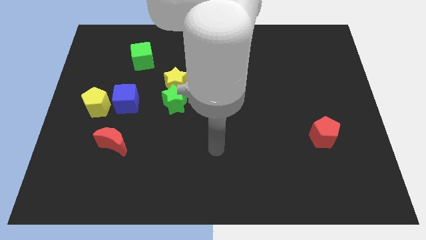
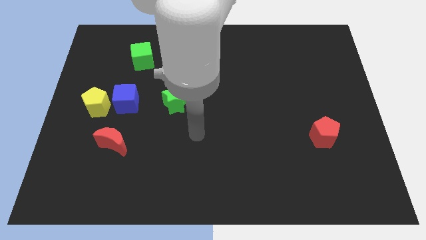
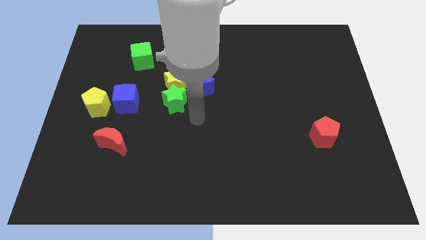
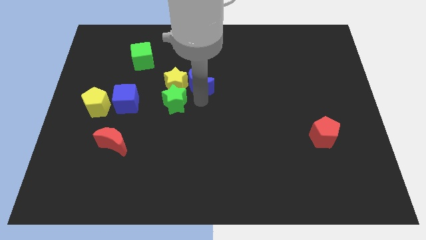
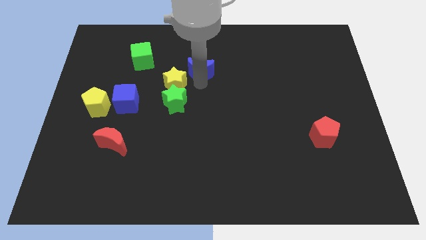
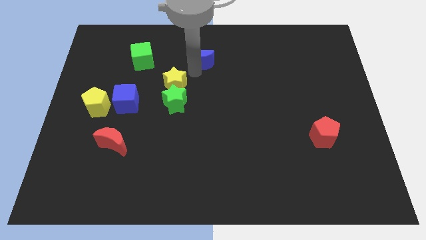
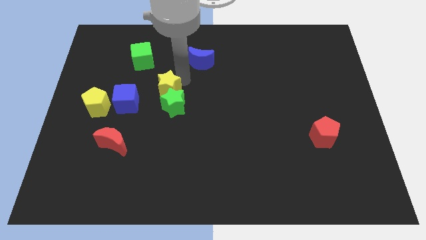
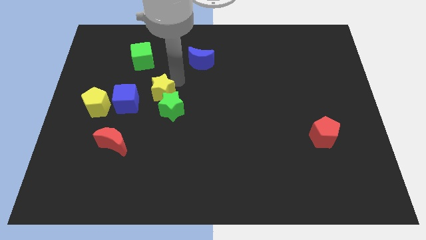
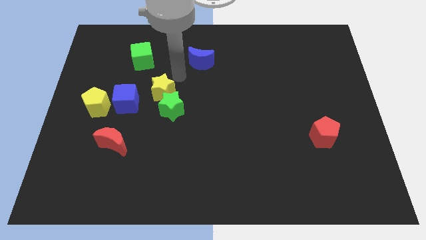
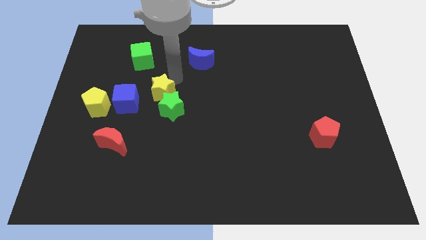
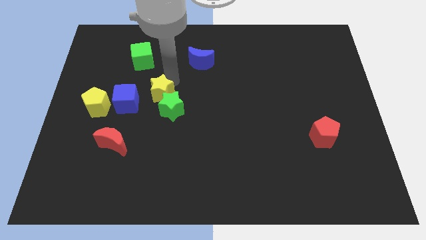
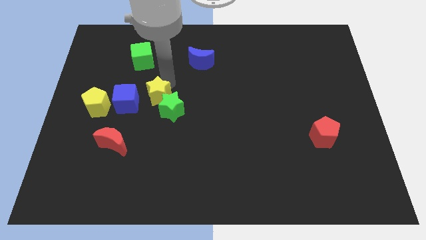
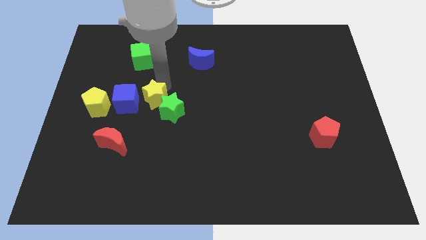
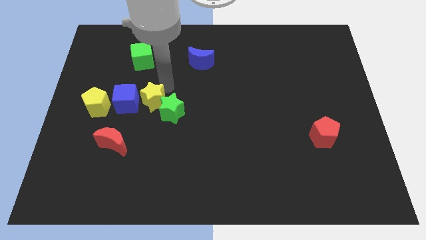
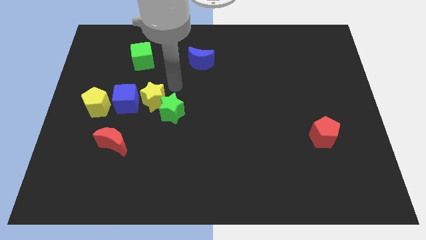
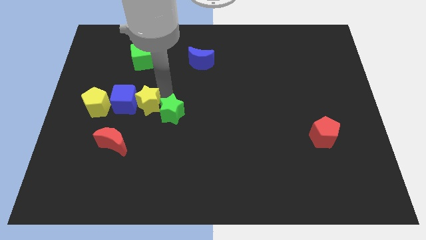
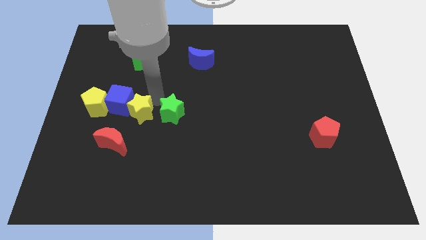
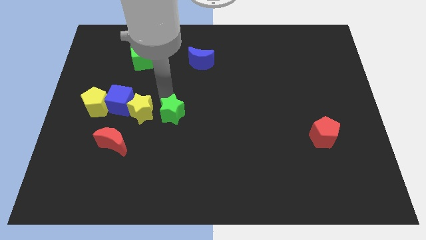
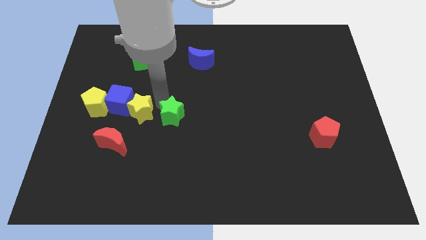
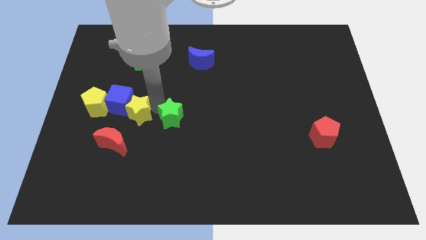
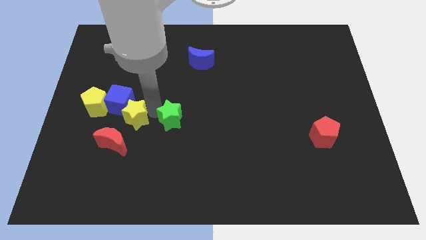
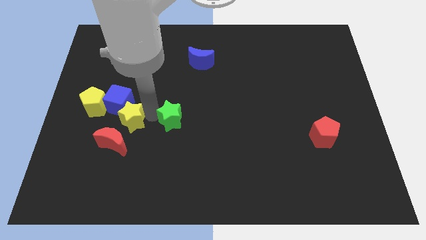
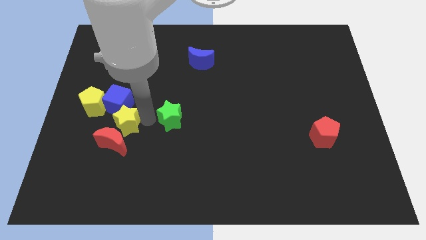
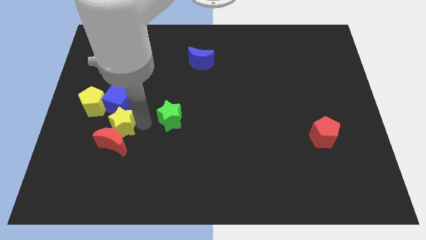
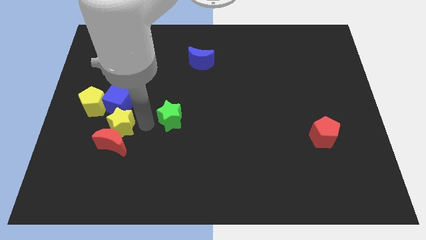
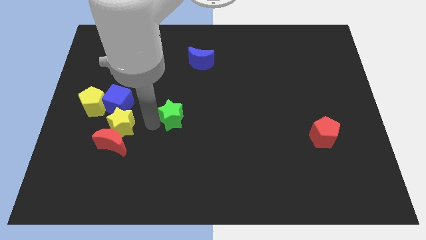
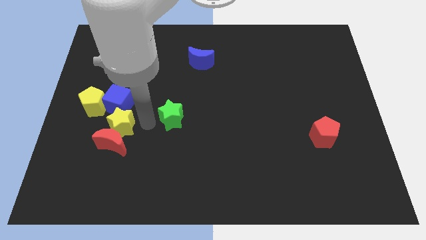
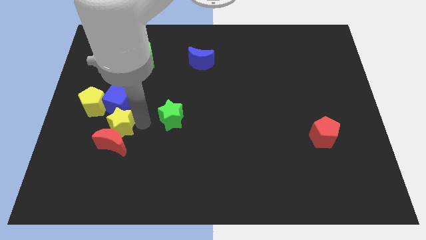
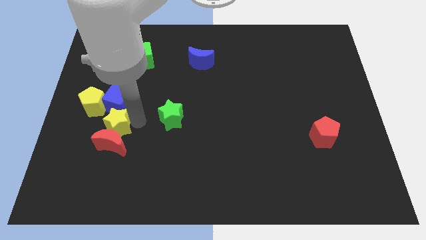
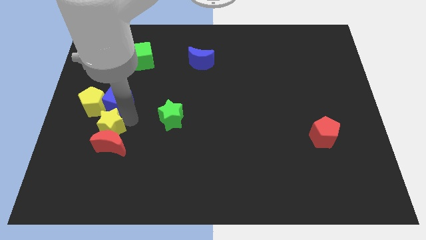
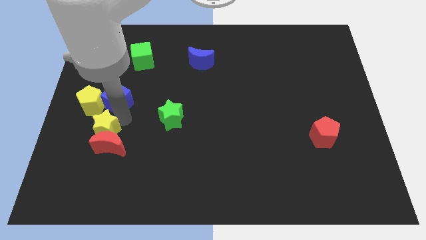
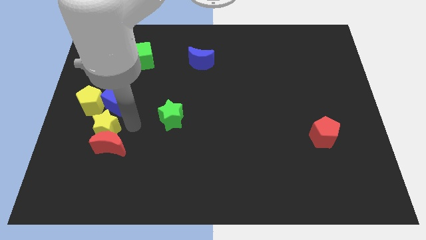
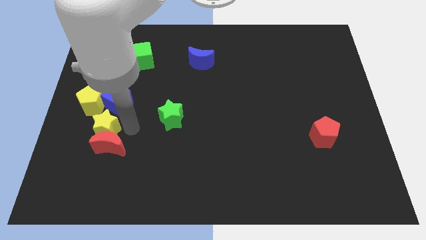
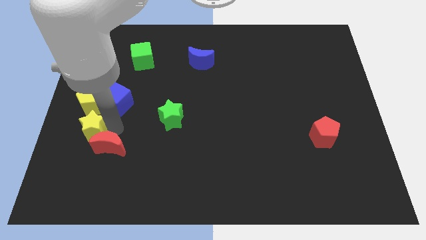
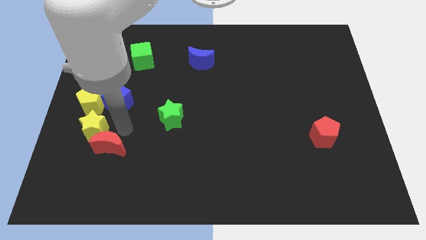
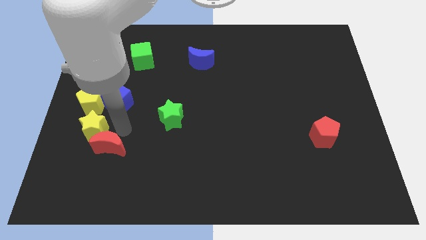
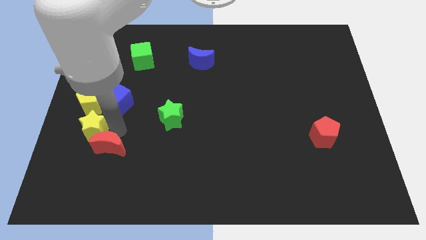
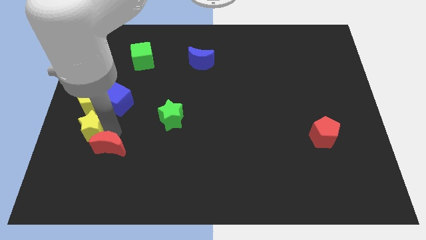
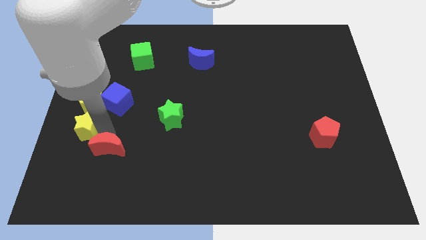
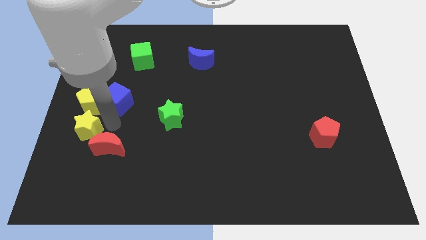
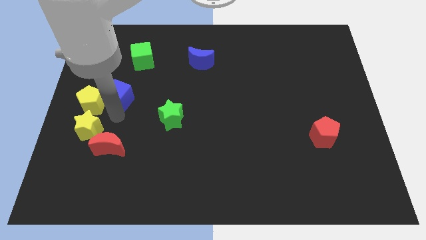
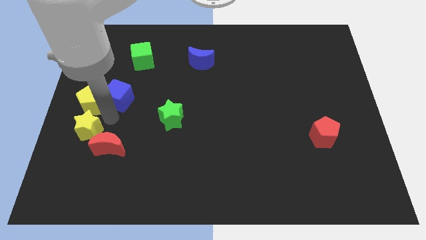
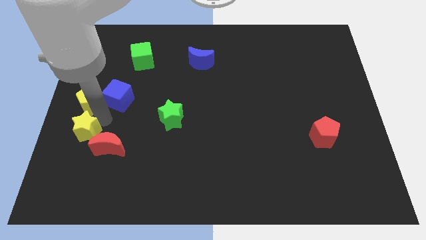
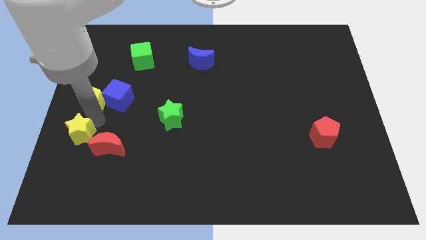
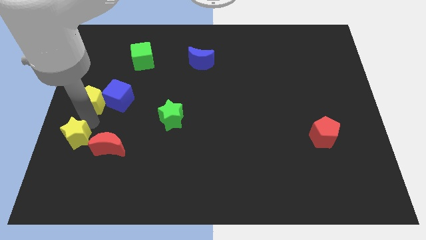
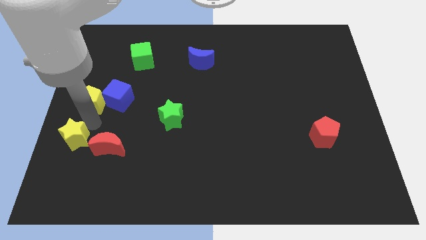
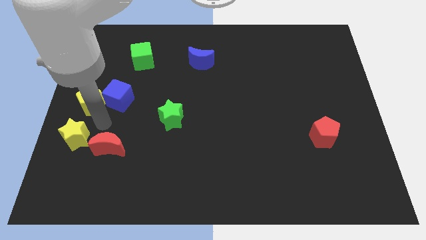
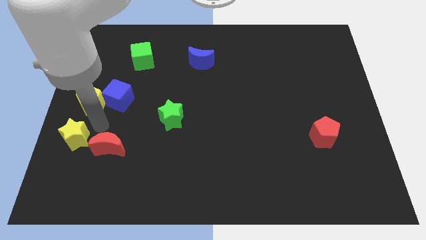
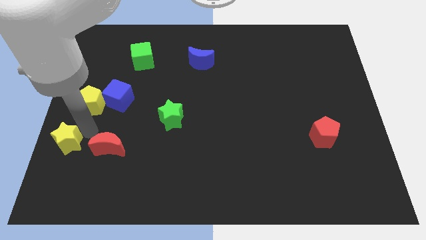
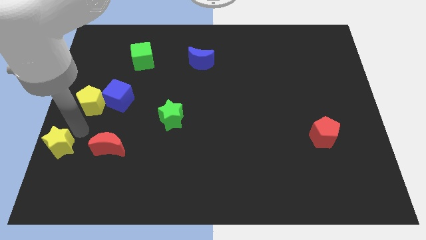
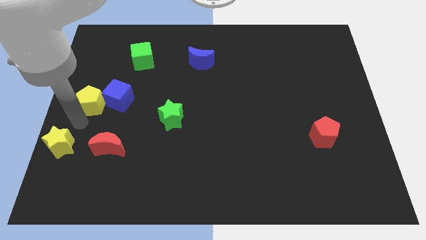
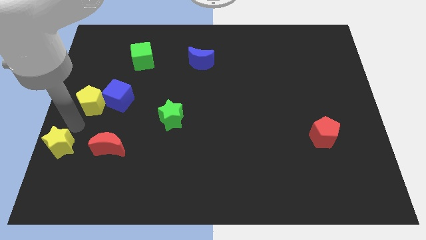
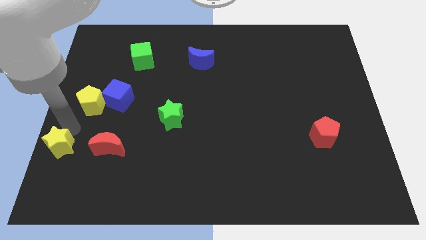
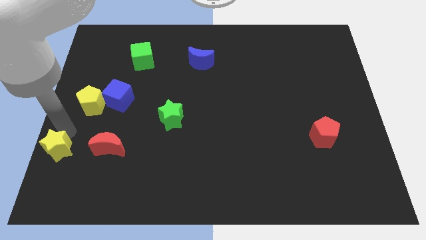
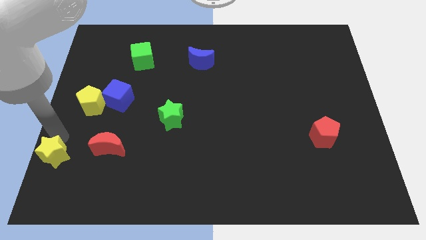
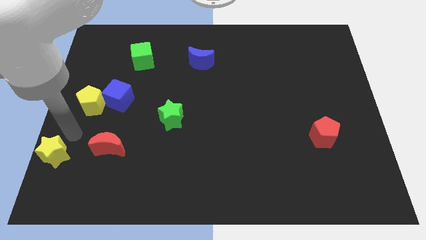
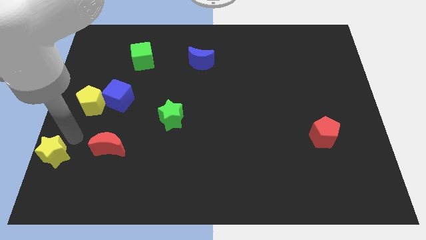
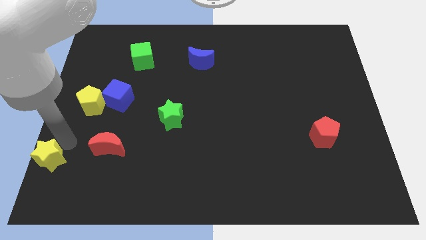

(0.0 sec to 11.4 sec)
slide the yellow star to the bottom left

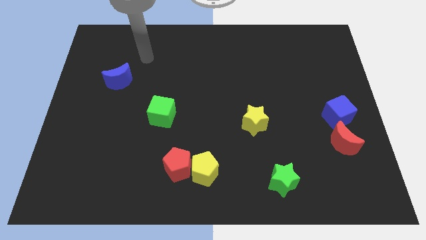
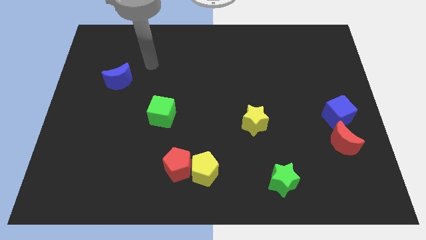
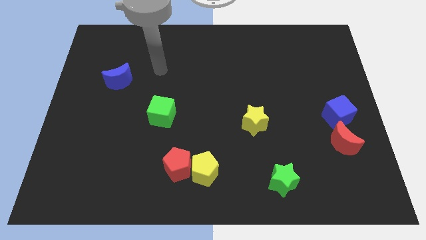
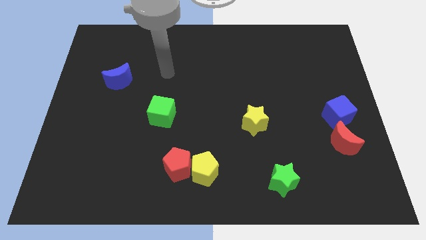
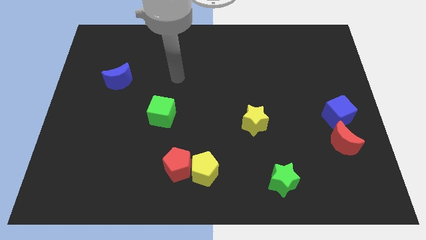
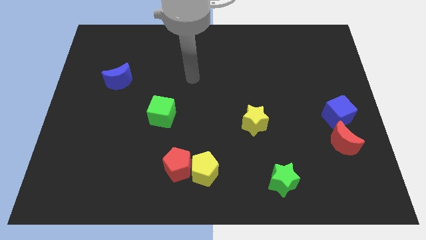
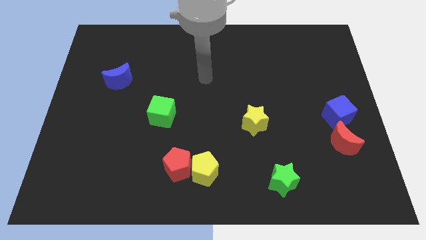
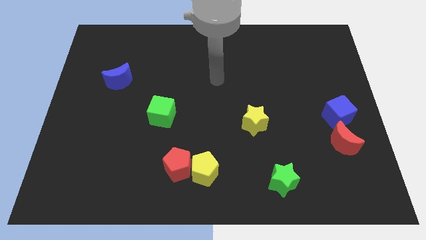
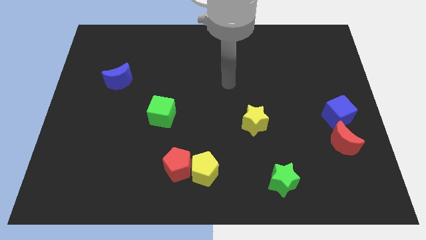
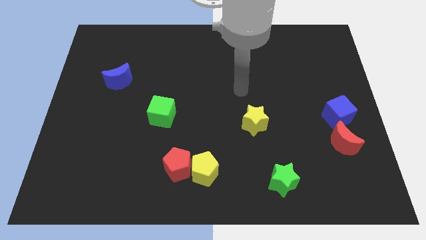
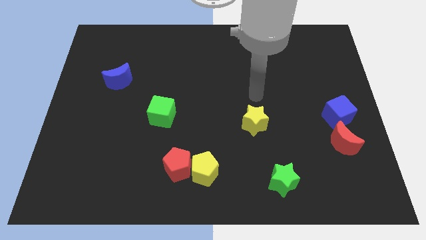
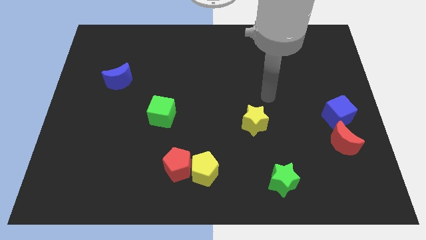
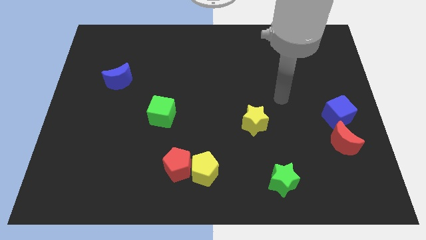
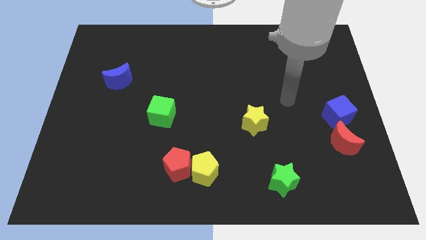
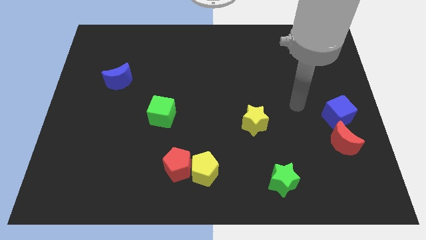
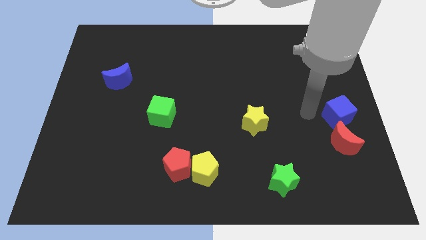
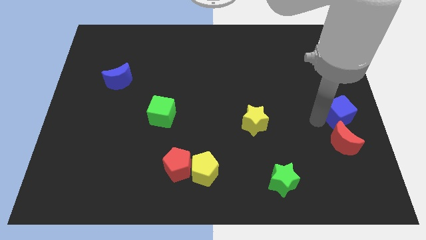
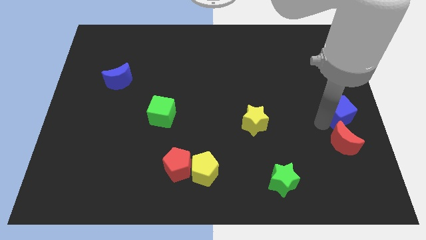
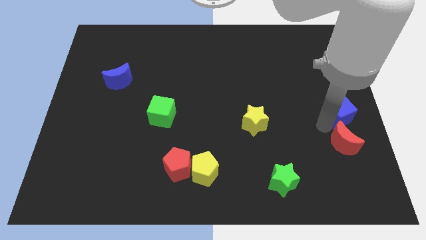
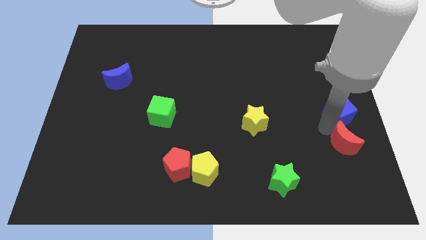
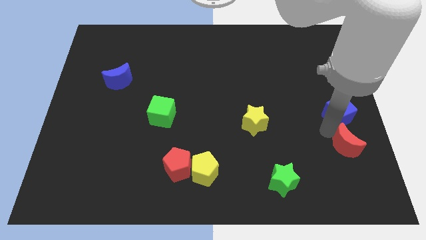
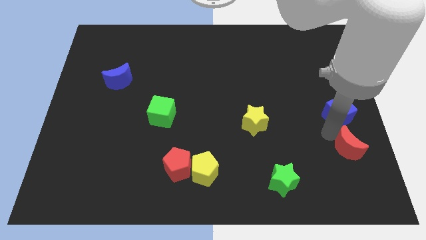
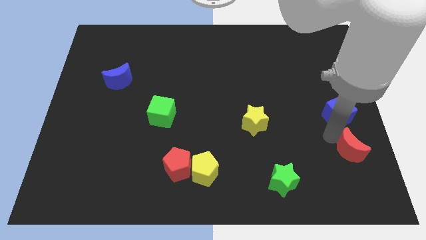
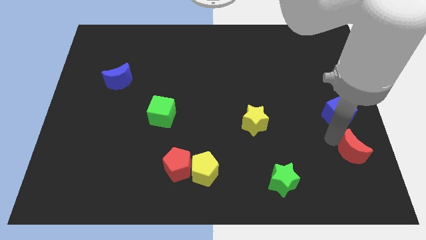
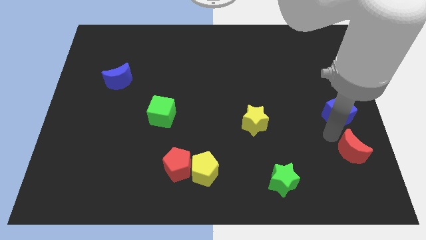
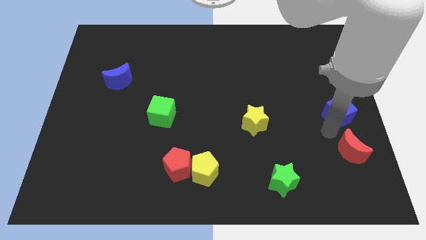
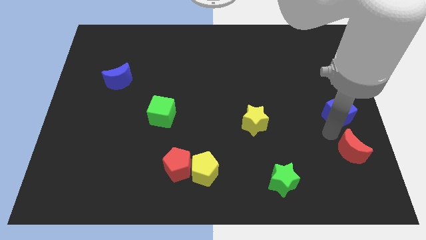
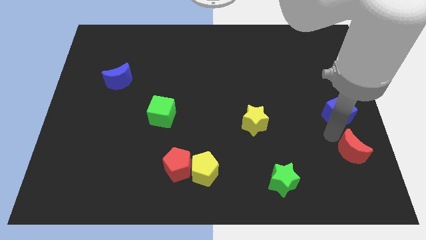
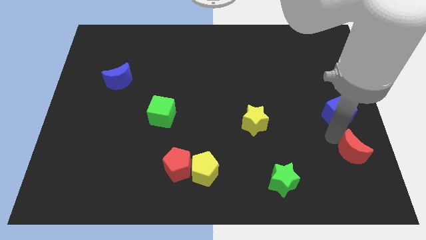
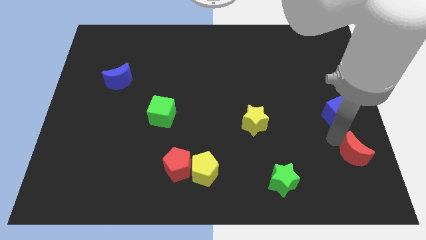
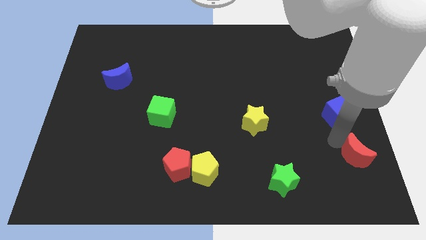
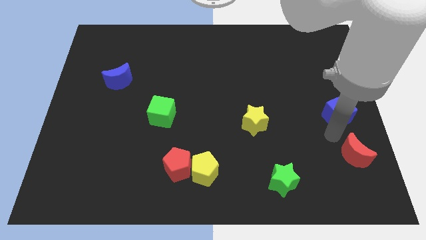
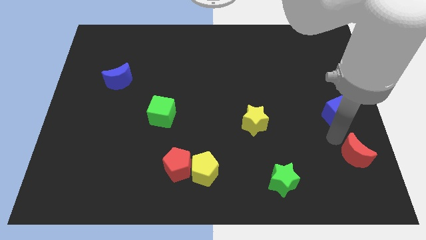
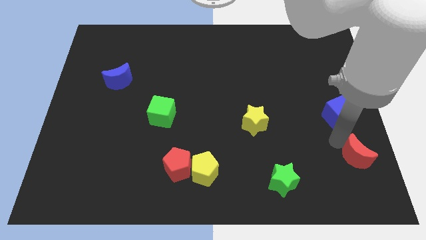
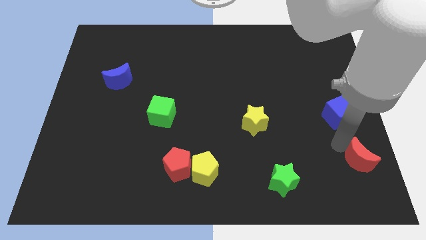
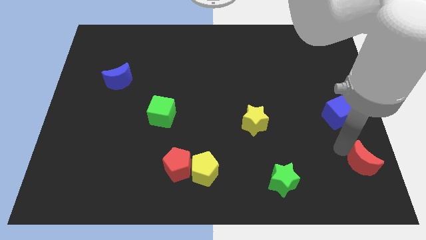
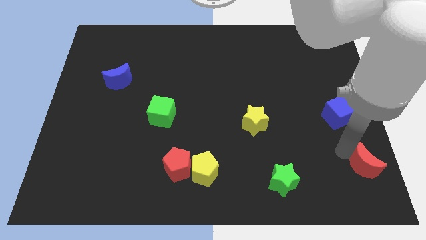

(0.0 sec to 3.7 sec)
push the red moon to the lower right corner
